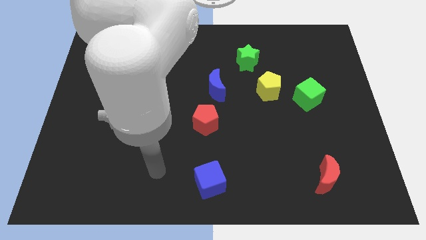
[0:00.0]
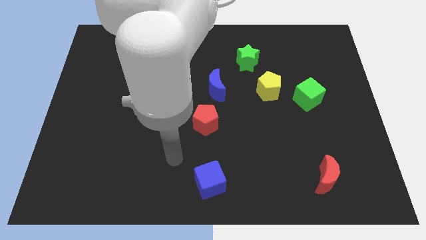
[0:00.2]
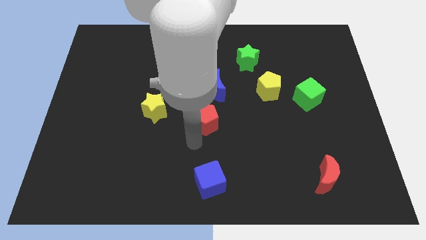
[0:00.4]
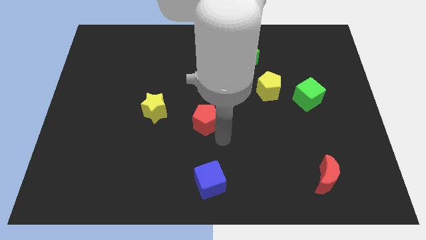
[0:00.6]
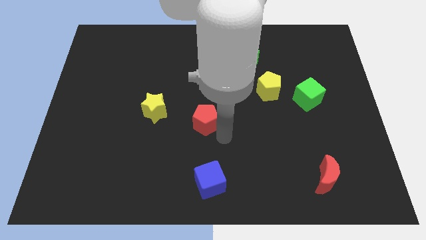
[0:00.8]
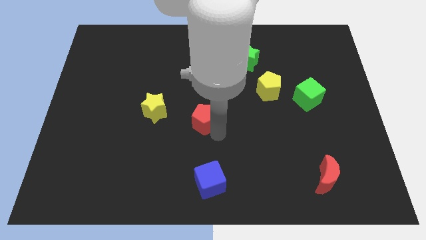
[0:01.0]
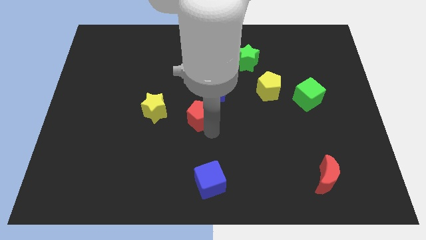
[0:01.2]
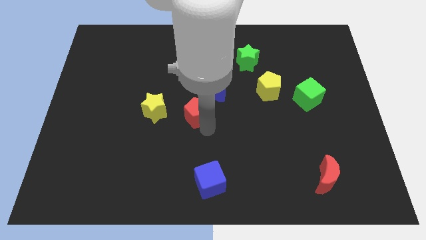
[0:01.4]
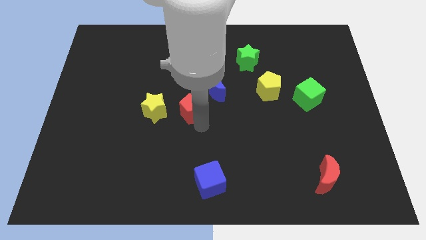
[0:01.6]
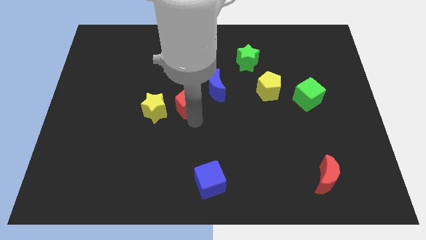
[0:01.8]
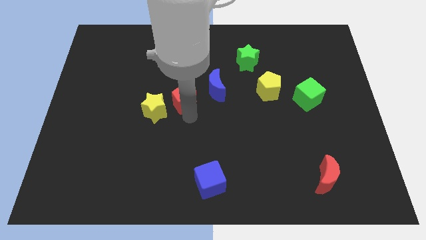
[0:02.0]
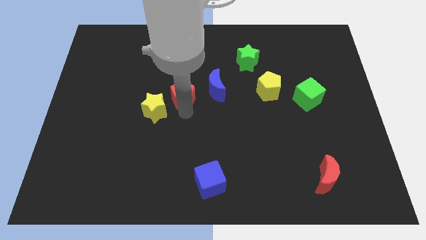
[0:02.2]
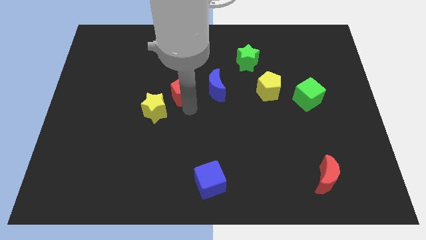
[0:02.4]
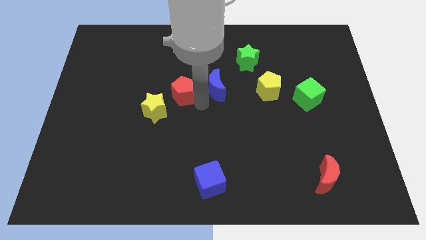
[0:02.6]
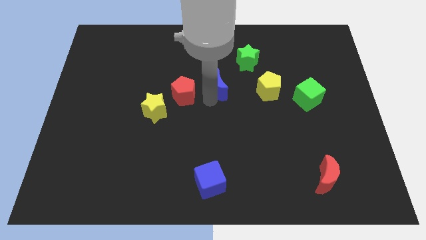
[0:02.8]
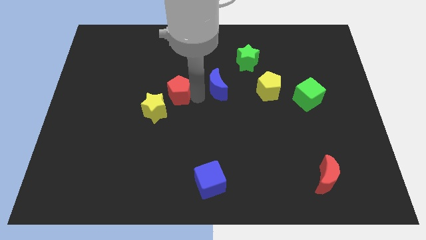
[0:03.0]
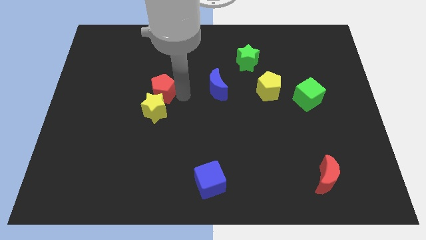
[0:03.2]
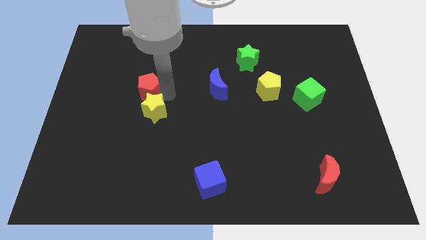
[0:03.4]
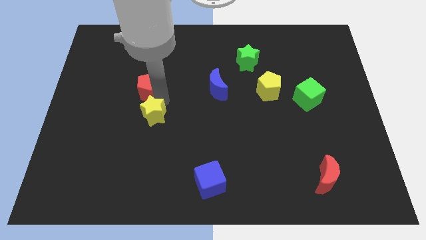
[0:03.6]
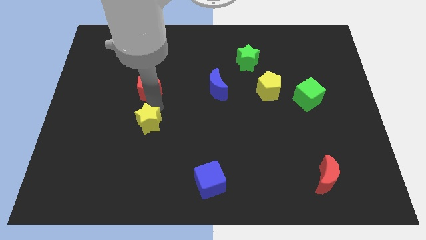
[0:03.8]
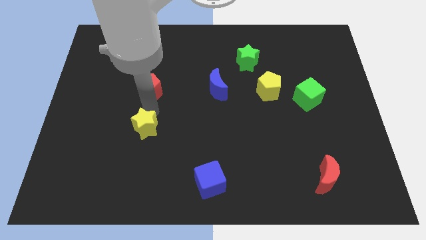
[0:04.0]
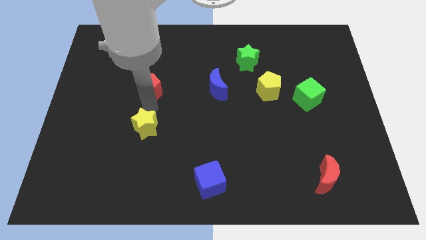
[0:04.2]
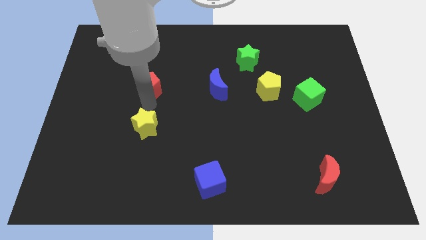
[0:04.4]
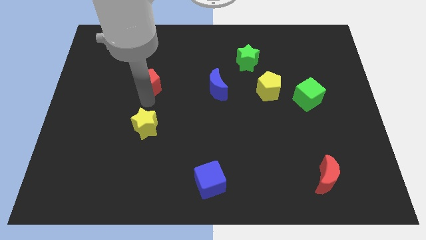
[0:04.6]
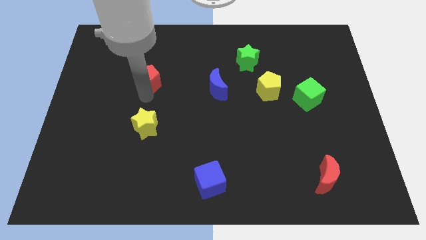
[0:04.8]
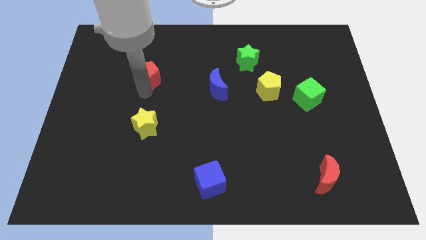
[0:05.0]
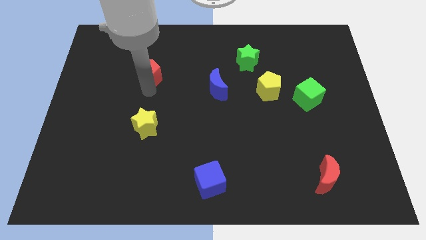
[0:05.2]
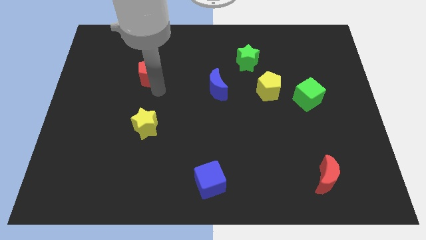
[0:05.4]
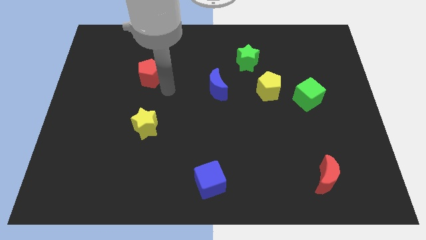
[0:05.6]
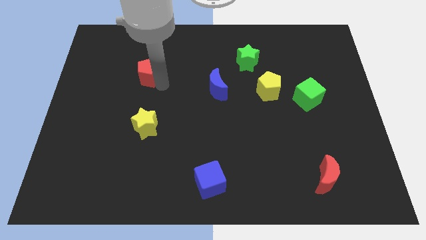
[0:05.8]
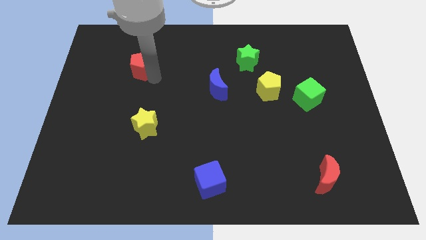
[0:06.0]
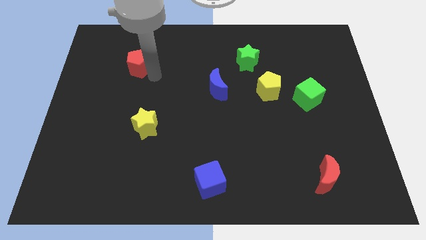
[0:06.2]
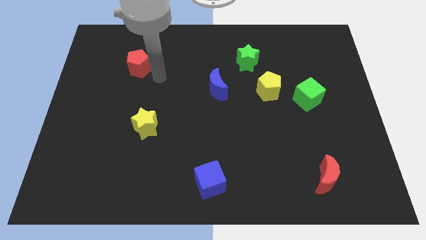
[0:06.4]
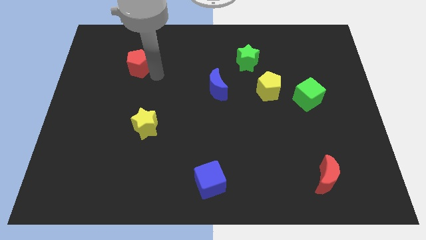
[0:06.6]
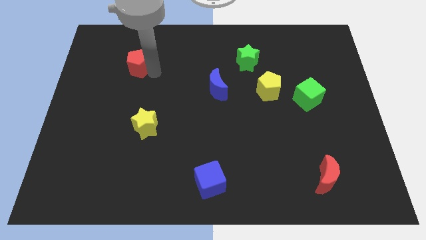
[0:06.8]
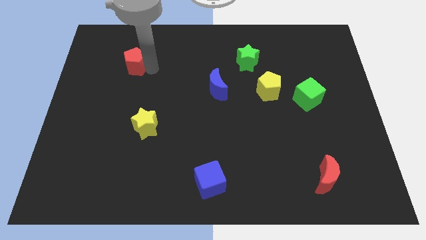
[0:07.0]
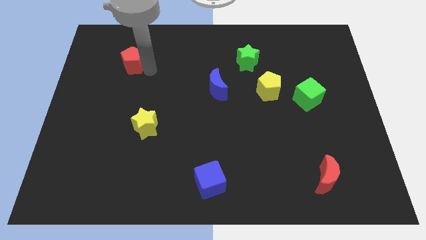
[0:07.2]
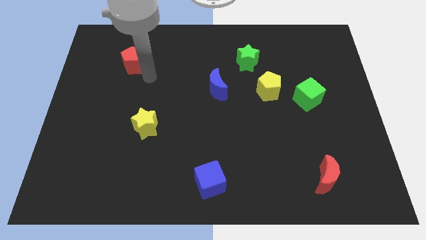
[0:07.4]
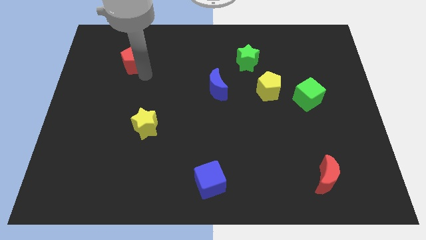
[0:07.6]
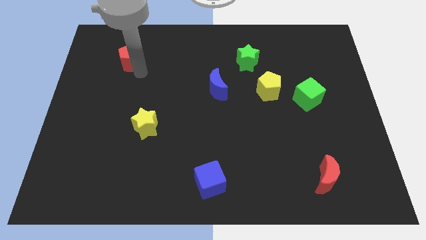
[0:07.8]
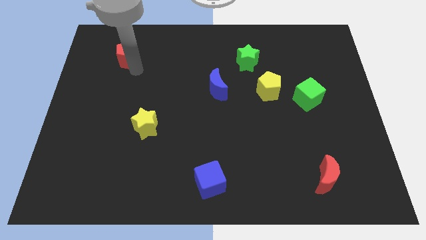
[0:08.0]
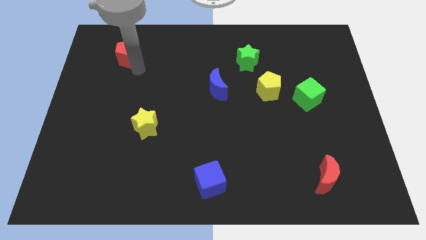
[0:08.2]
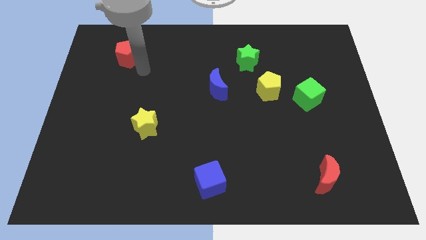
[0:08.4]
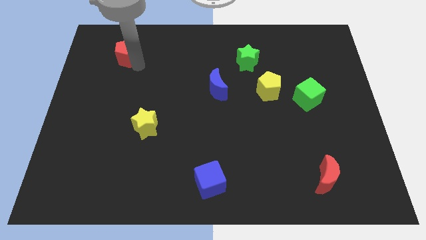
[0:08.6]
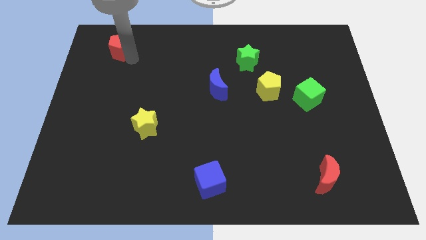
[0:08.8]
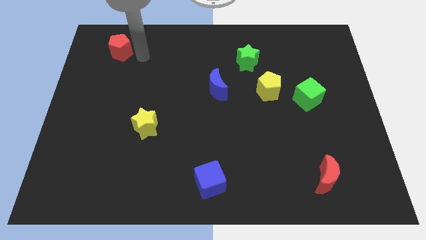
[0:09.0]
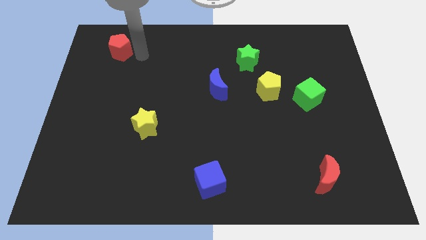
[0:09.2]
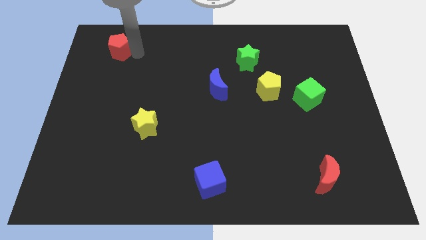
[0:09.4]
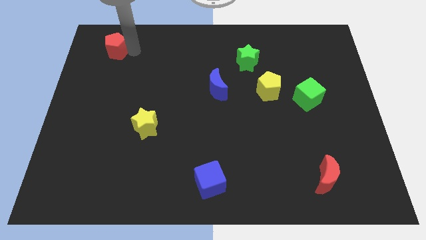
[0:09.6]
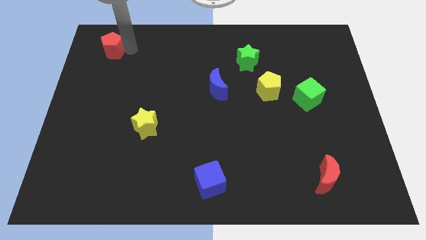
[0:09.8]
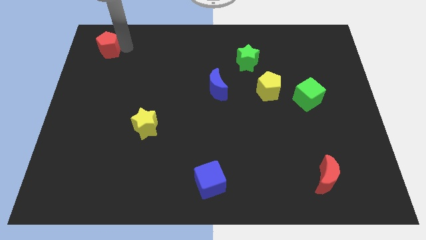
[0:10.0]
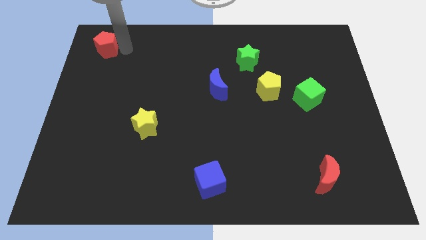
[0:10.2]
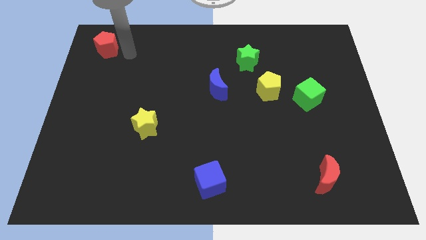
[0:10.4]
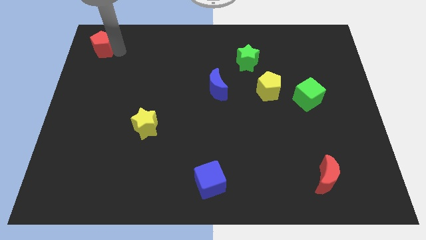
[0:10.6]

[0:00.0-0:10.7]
put the red pentagon to the top left of the board
